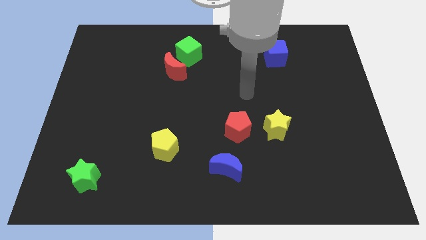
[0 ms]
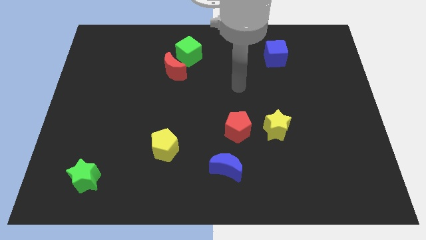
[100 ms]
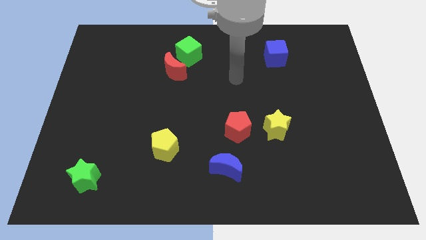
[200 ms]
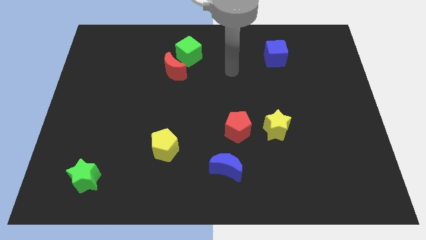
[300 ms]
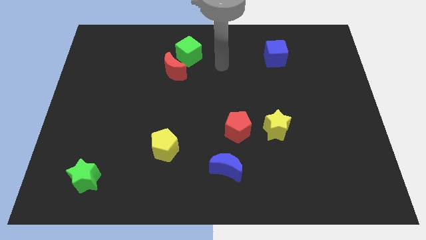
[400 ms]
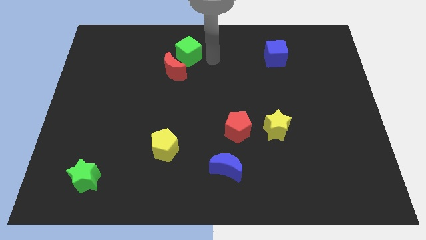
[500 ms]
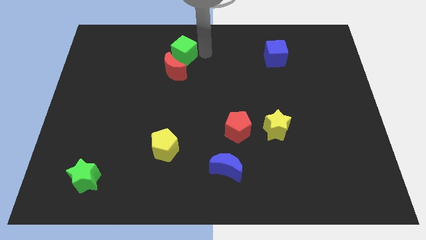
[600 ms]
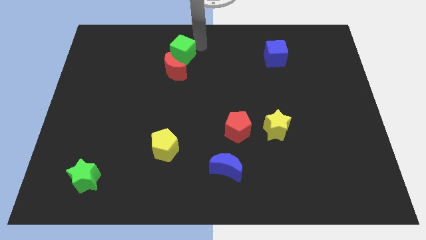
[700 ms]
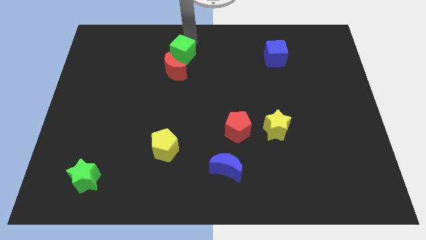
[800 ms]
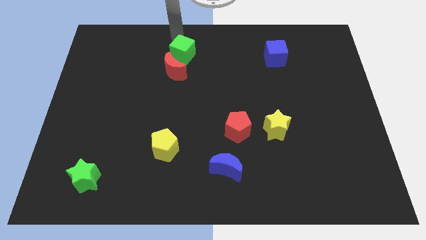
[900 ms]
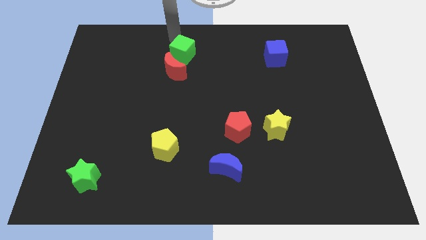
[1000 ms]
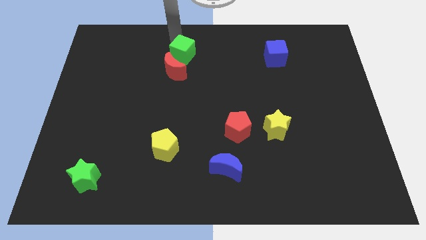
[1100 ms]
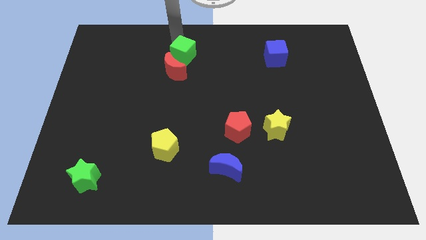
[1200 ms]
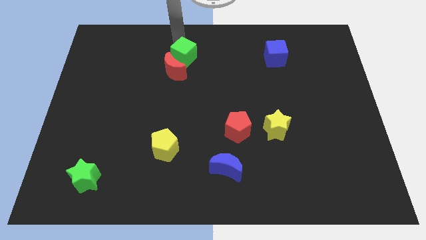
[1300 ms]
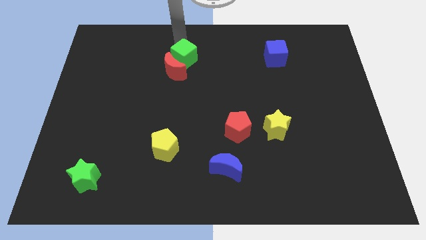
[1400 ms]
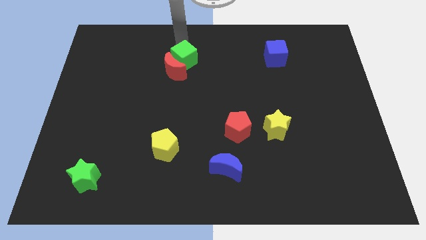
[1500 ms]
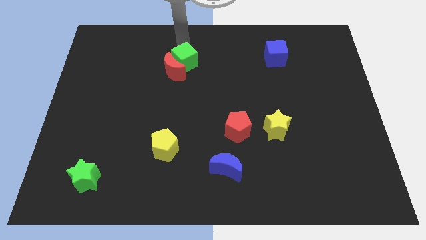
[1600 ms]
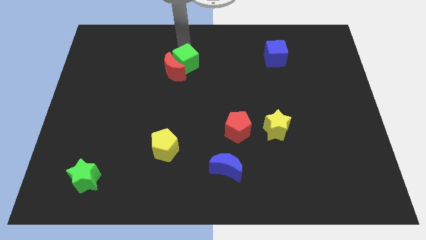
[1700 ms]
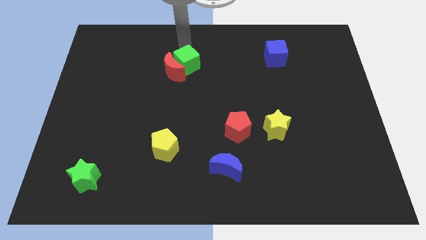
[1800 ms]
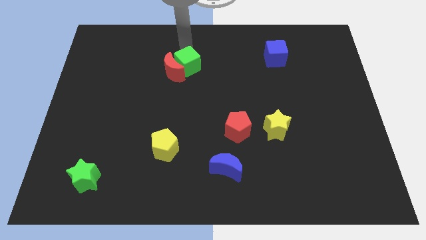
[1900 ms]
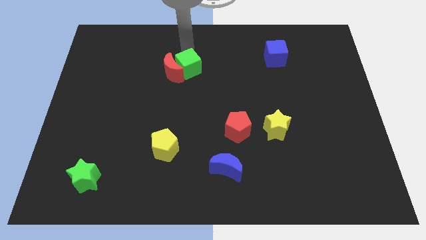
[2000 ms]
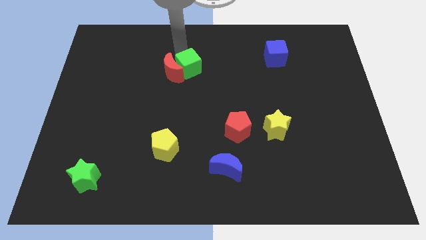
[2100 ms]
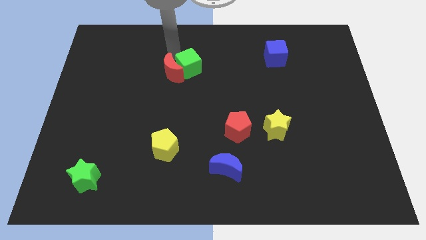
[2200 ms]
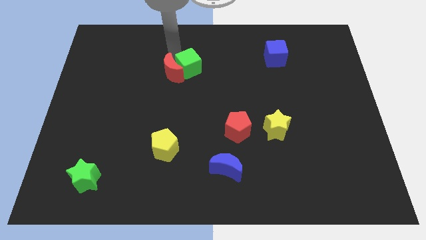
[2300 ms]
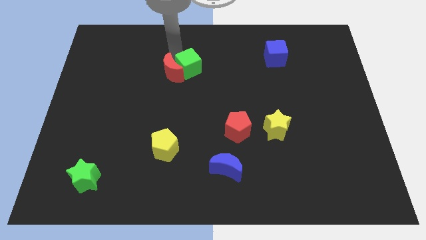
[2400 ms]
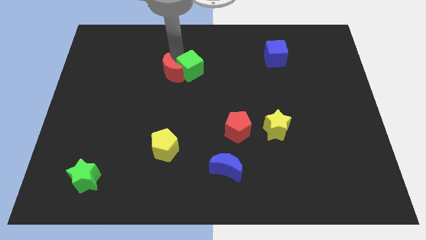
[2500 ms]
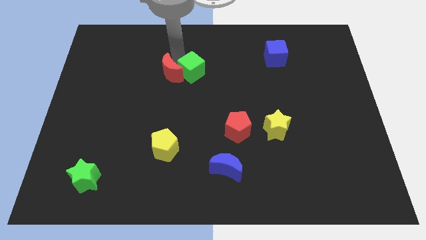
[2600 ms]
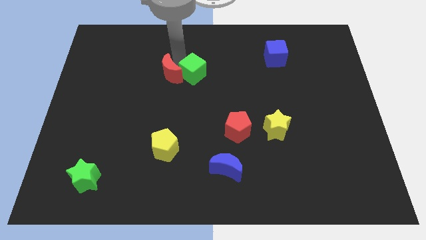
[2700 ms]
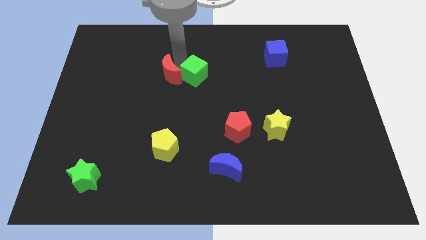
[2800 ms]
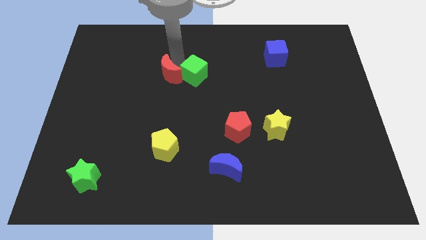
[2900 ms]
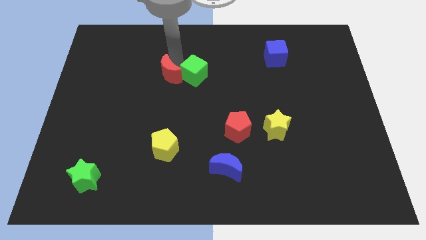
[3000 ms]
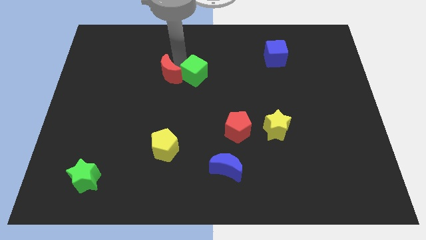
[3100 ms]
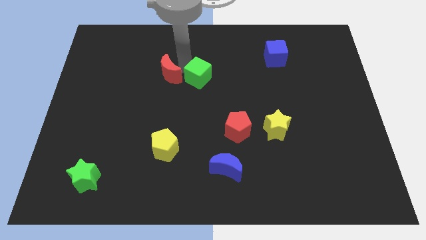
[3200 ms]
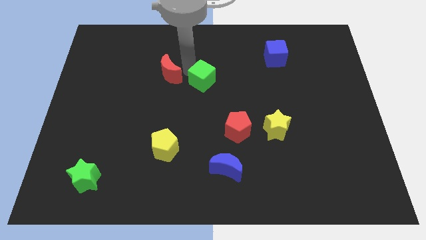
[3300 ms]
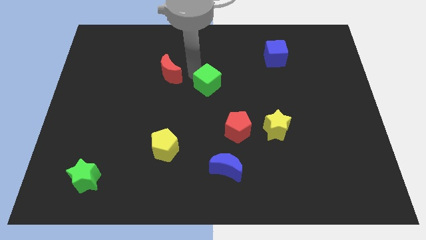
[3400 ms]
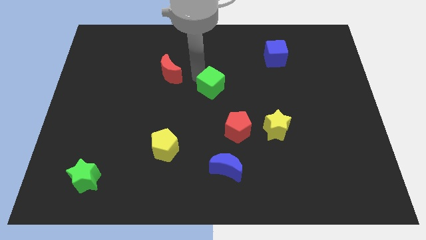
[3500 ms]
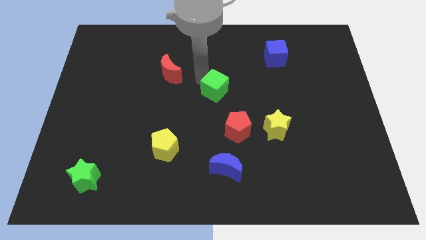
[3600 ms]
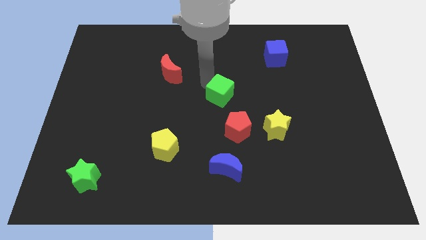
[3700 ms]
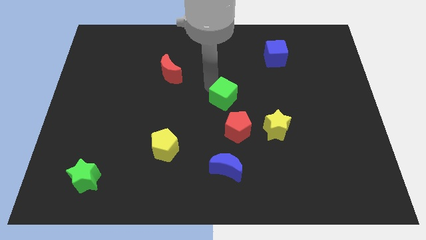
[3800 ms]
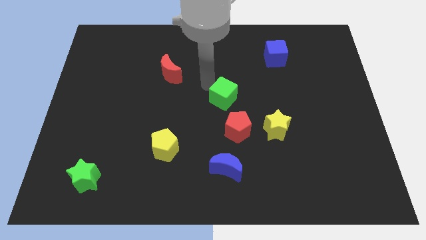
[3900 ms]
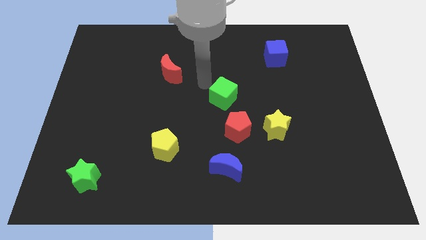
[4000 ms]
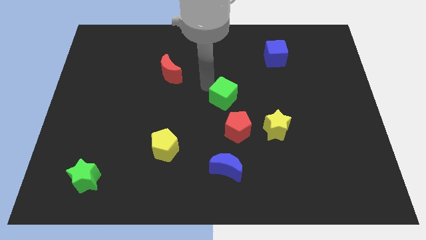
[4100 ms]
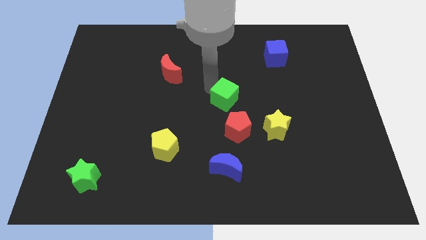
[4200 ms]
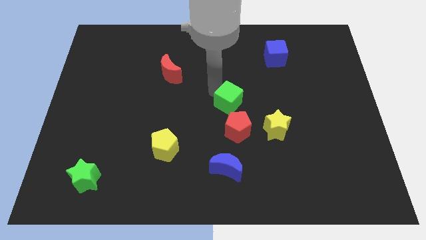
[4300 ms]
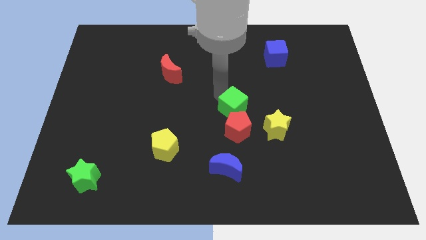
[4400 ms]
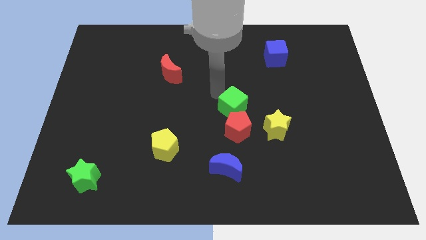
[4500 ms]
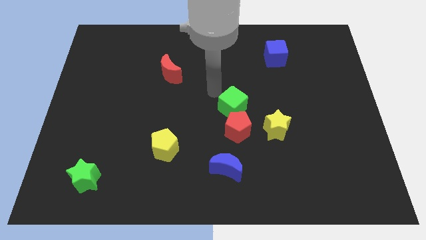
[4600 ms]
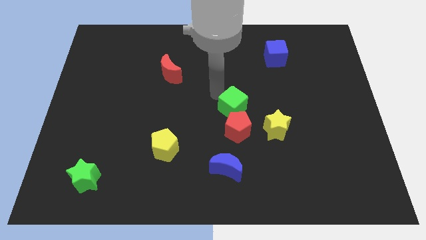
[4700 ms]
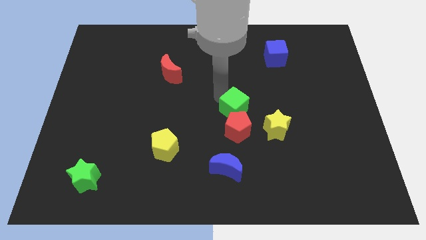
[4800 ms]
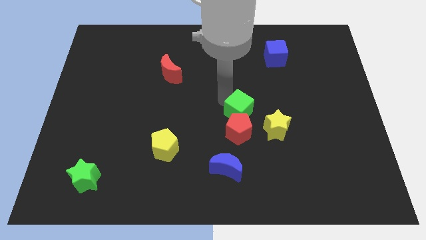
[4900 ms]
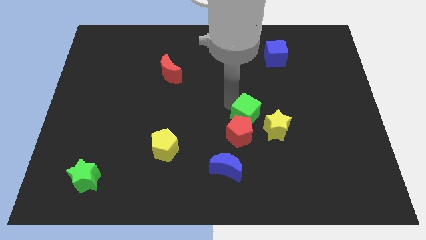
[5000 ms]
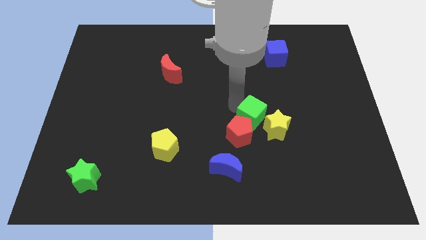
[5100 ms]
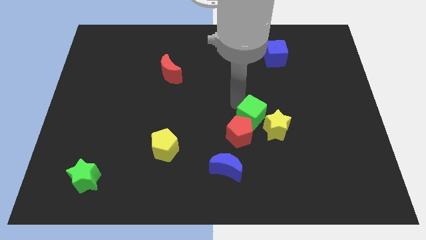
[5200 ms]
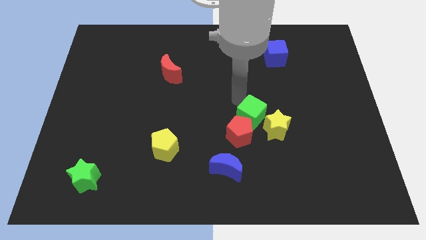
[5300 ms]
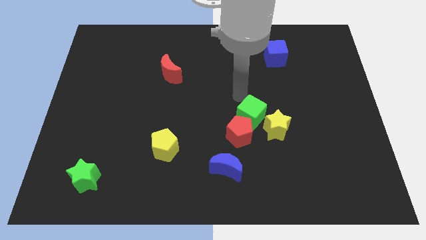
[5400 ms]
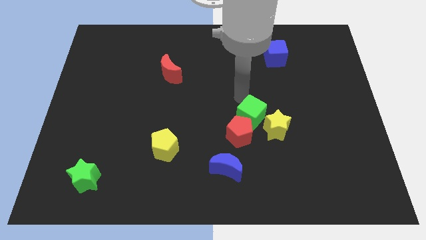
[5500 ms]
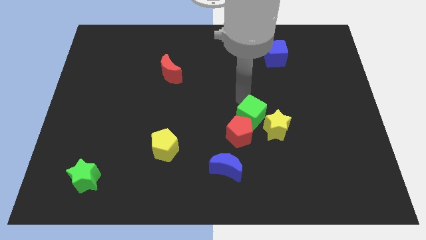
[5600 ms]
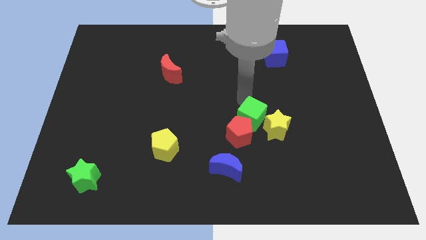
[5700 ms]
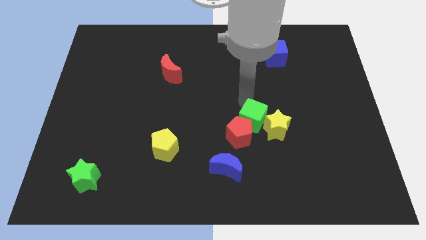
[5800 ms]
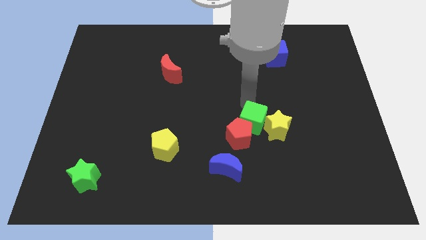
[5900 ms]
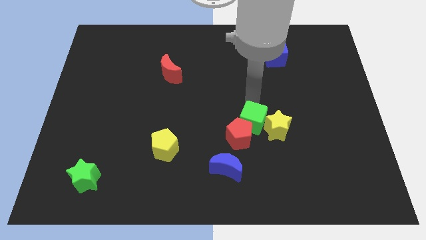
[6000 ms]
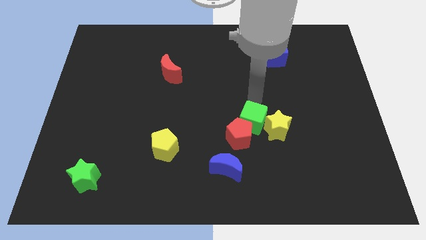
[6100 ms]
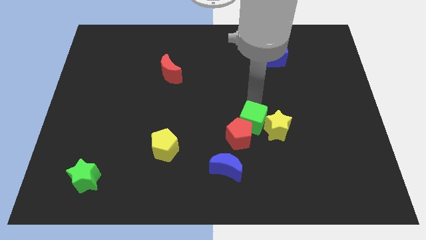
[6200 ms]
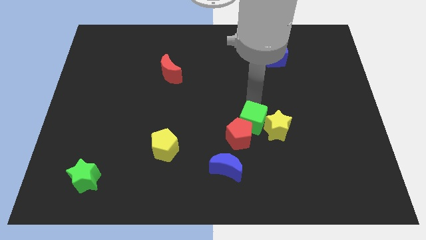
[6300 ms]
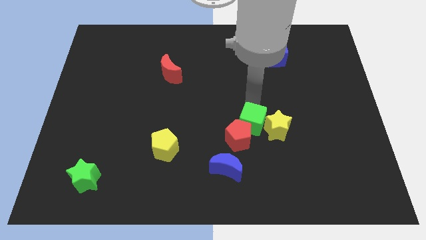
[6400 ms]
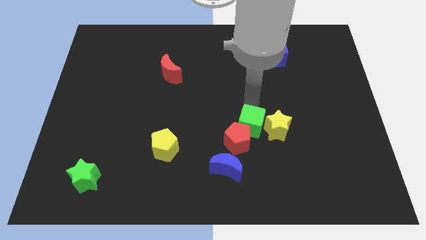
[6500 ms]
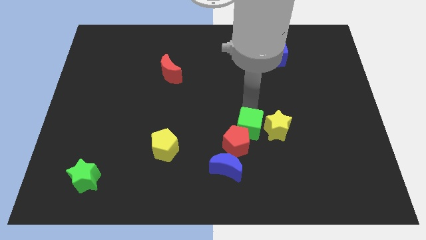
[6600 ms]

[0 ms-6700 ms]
push the green cube to the top right of the blue moon
